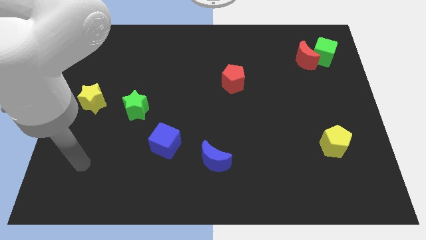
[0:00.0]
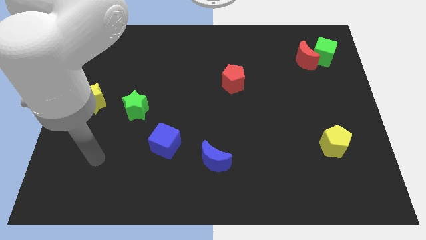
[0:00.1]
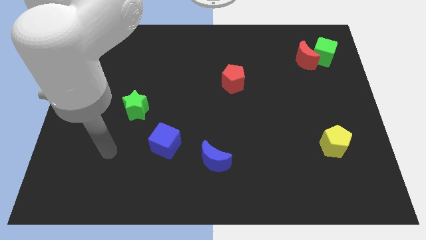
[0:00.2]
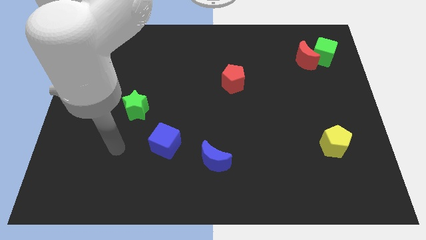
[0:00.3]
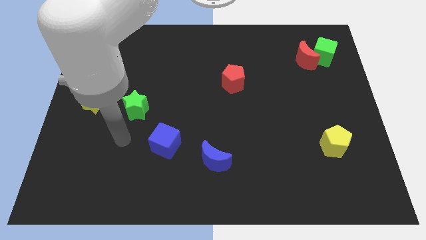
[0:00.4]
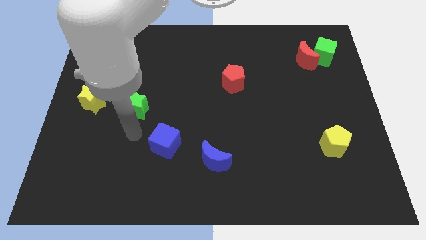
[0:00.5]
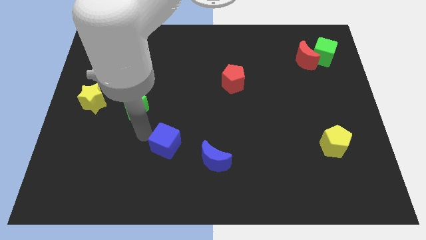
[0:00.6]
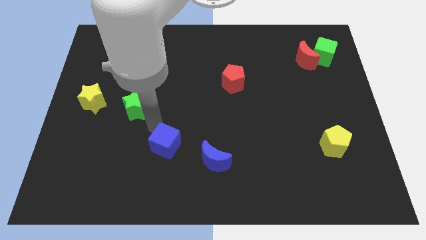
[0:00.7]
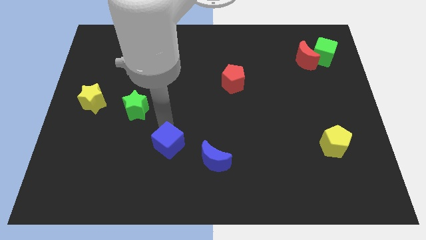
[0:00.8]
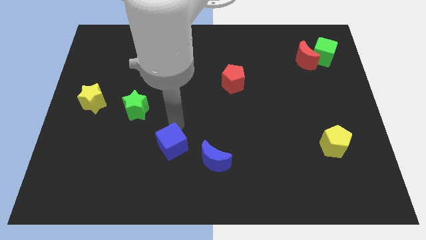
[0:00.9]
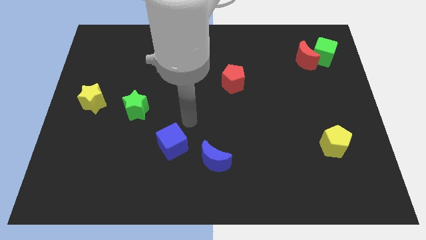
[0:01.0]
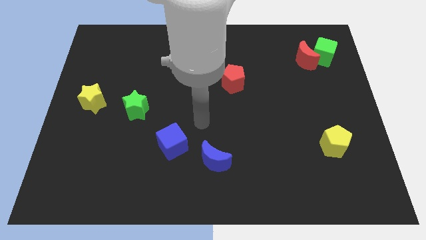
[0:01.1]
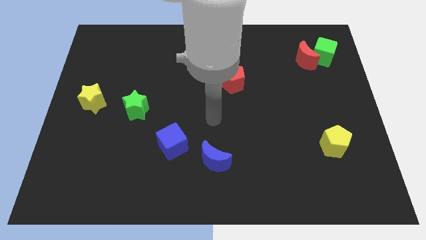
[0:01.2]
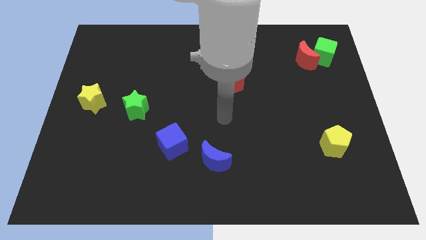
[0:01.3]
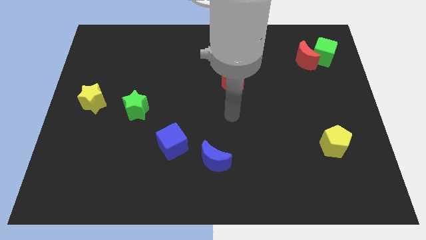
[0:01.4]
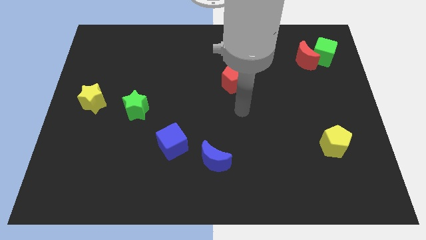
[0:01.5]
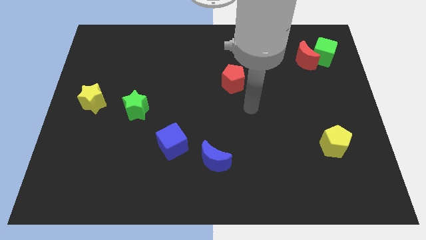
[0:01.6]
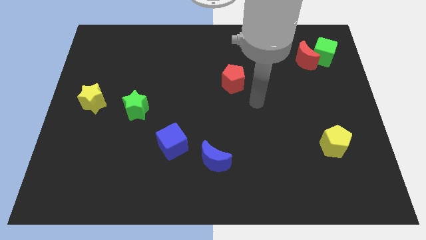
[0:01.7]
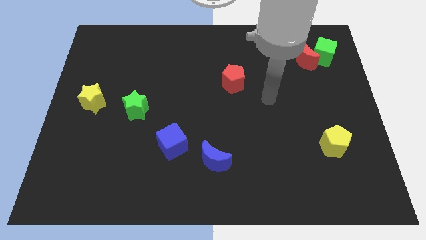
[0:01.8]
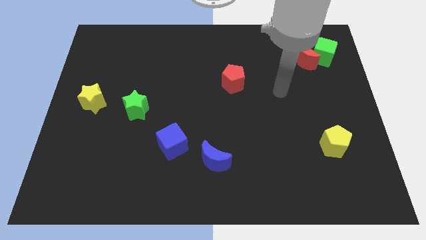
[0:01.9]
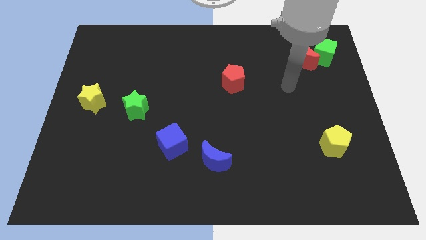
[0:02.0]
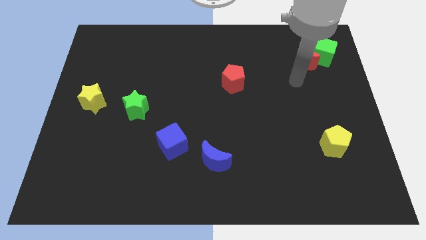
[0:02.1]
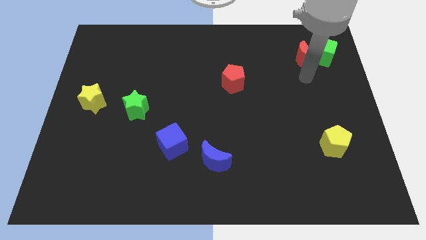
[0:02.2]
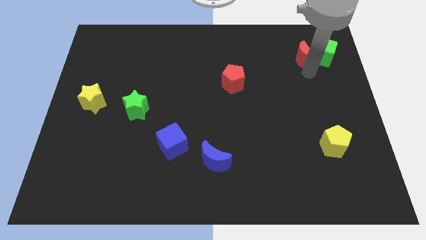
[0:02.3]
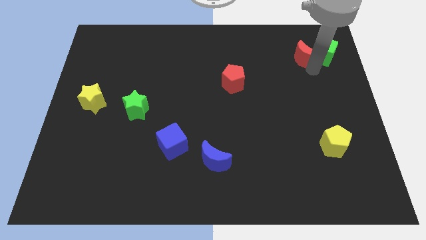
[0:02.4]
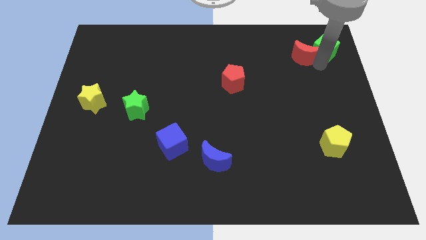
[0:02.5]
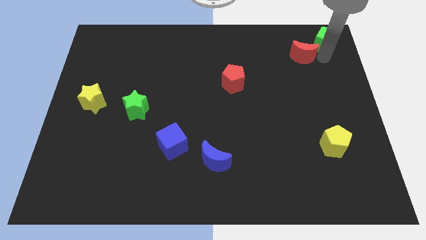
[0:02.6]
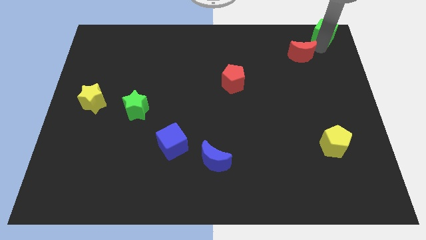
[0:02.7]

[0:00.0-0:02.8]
move the red moon away from the green cube

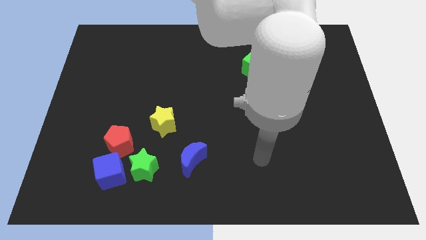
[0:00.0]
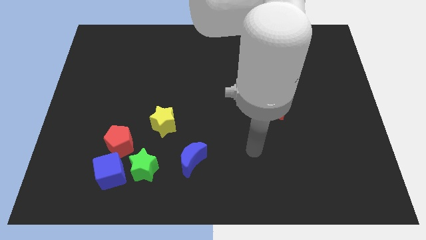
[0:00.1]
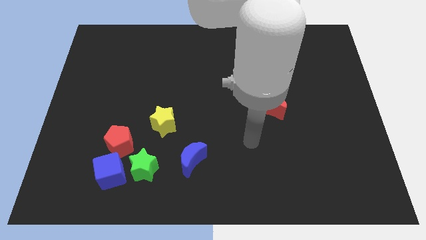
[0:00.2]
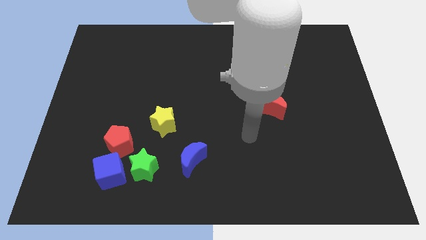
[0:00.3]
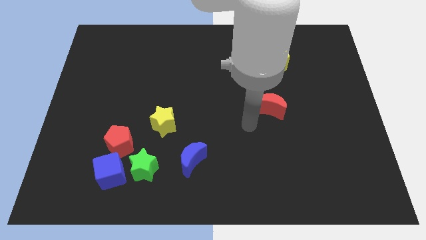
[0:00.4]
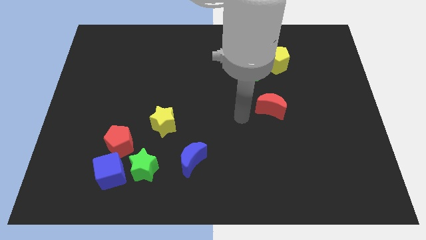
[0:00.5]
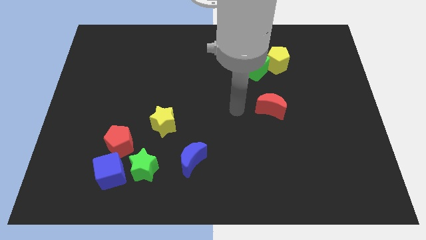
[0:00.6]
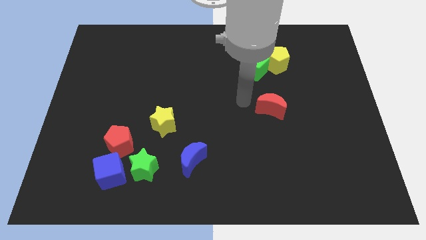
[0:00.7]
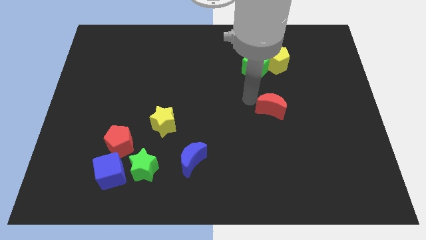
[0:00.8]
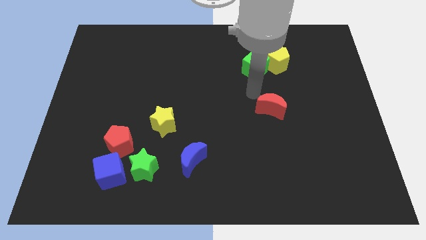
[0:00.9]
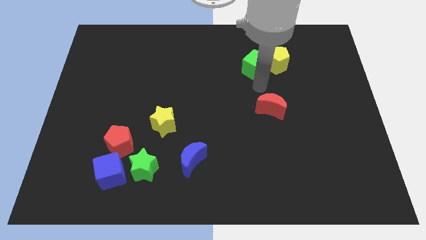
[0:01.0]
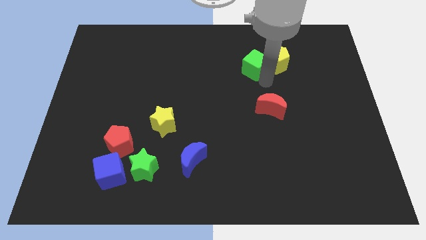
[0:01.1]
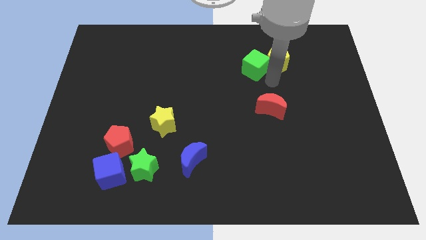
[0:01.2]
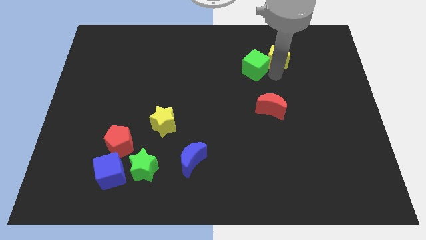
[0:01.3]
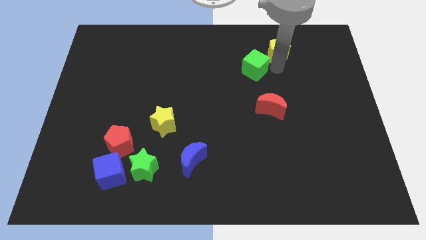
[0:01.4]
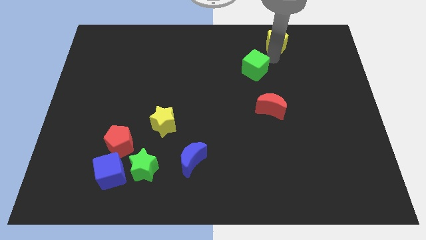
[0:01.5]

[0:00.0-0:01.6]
move the green cube away from the yellow pentagon

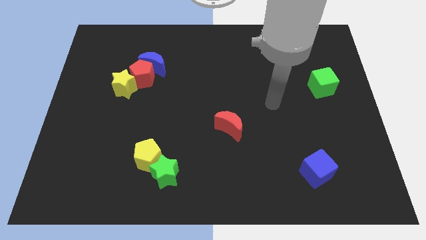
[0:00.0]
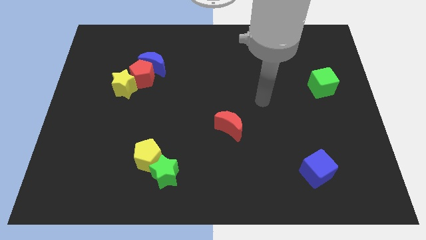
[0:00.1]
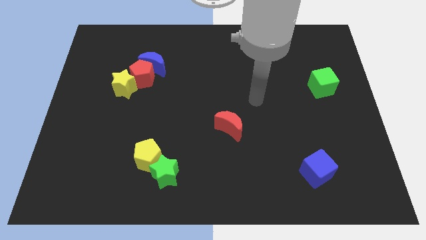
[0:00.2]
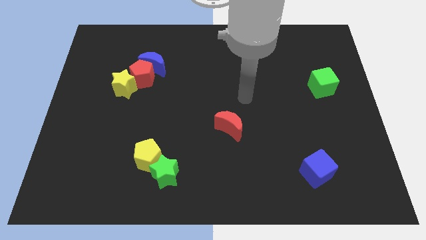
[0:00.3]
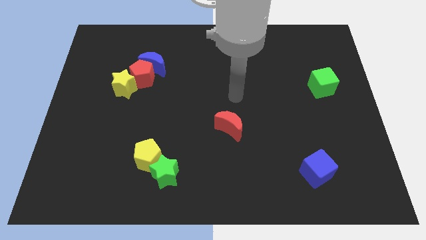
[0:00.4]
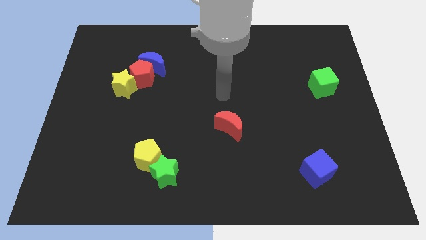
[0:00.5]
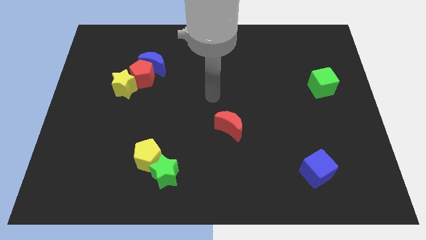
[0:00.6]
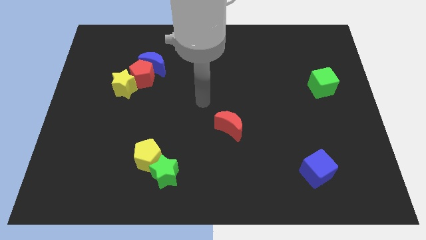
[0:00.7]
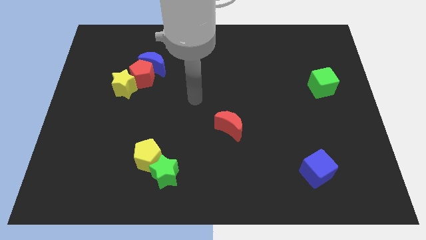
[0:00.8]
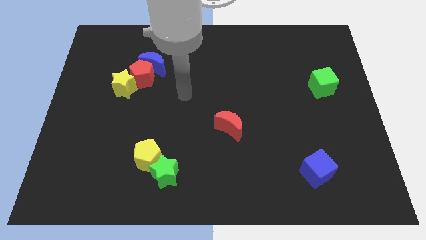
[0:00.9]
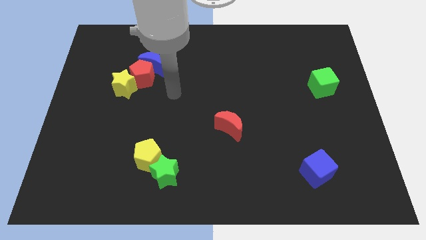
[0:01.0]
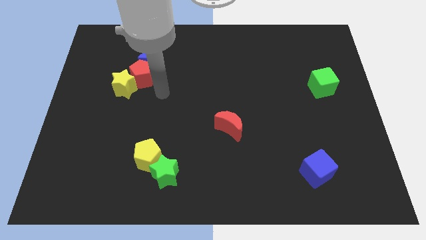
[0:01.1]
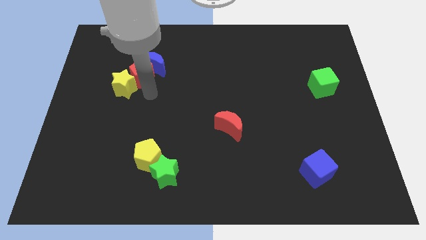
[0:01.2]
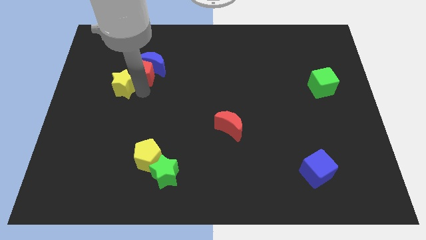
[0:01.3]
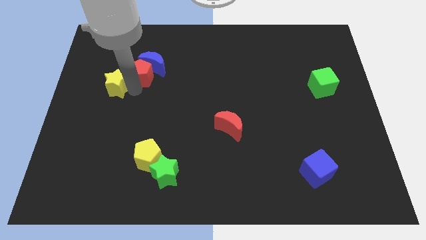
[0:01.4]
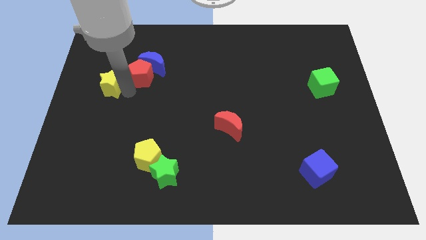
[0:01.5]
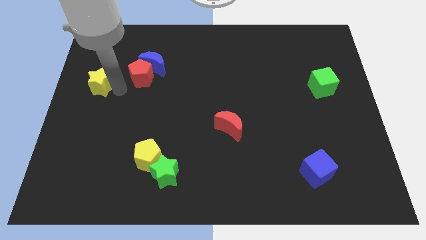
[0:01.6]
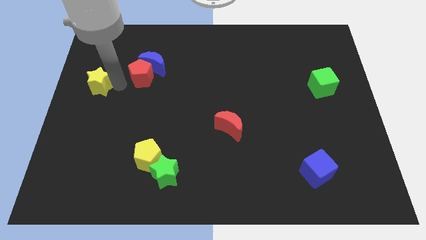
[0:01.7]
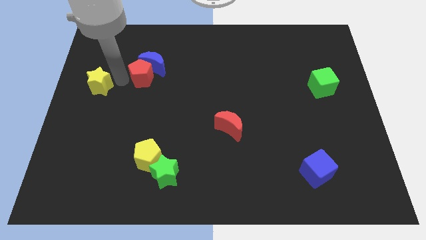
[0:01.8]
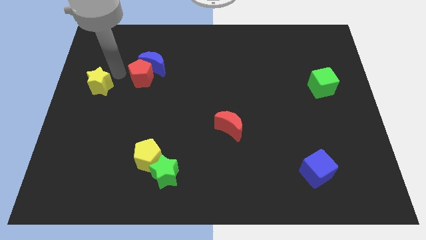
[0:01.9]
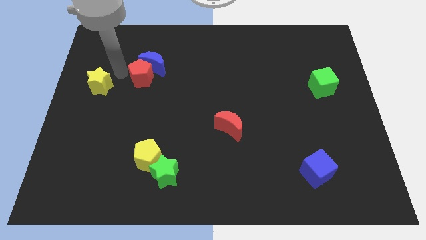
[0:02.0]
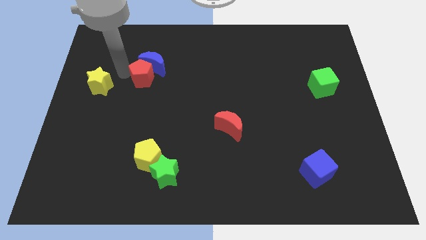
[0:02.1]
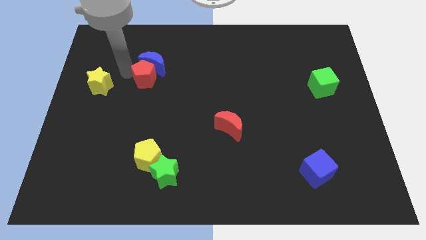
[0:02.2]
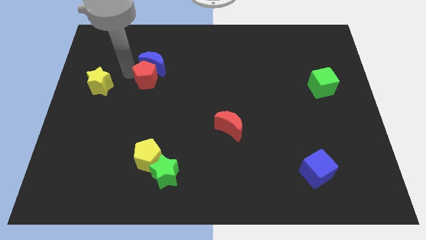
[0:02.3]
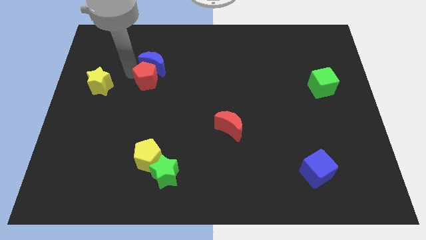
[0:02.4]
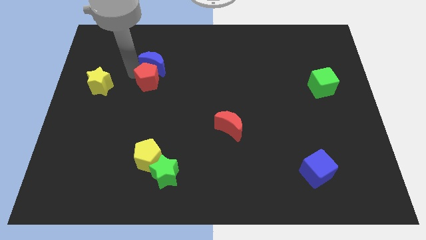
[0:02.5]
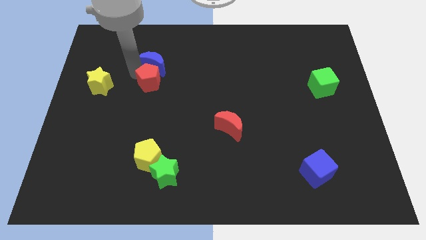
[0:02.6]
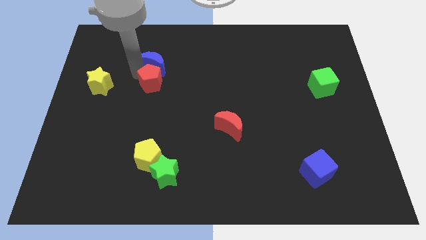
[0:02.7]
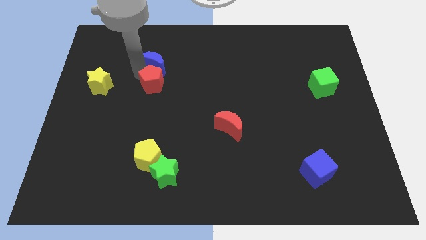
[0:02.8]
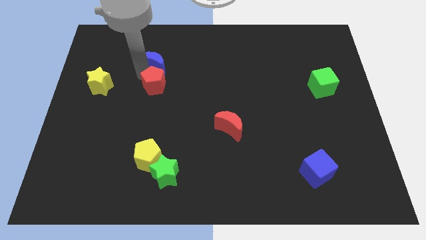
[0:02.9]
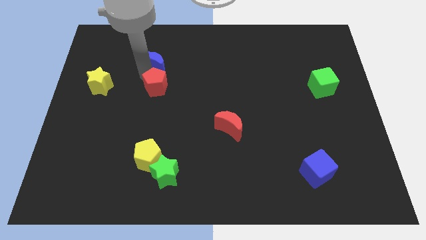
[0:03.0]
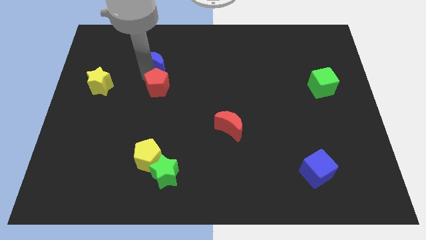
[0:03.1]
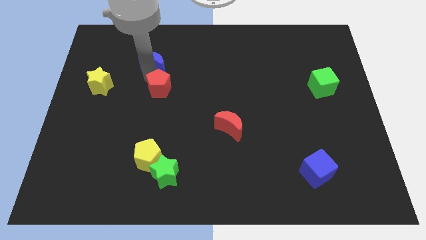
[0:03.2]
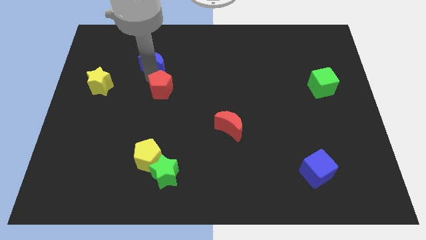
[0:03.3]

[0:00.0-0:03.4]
move the red pentagon away from the blue moon and yellow star

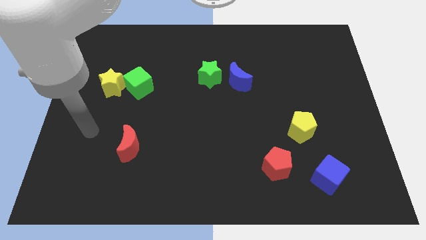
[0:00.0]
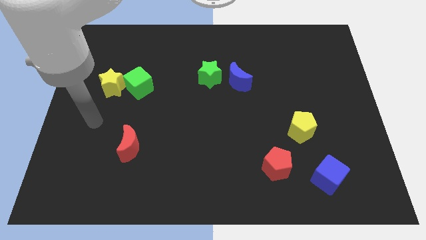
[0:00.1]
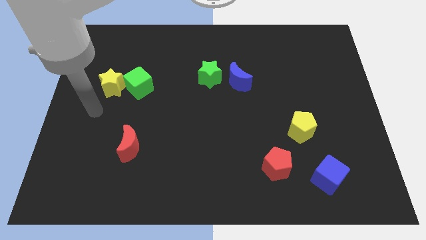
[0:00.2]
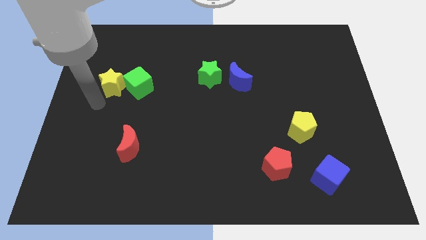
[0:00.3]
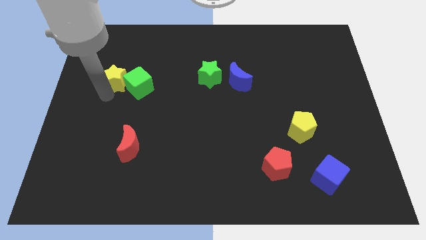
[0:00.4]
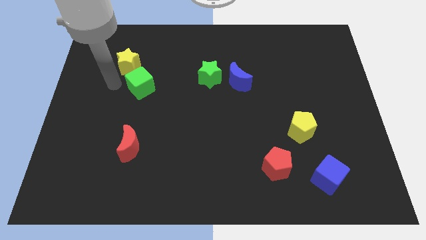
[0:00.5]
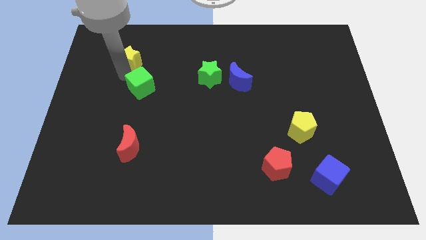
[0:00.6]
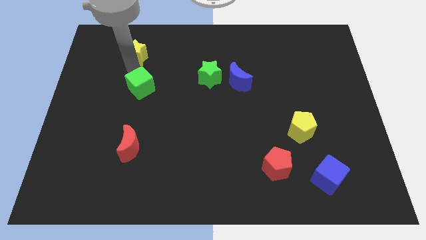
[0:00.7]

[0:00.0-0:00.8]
separate the green cube from the yellow star

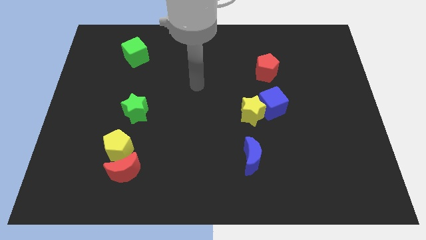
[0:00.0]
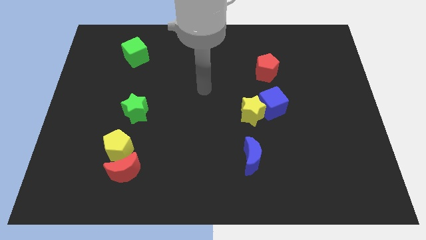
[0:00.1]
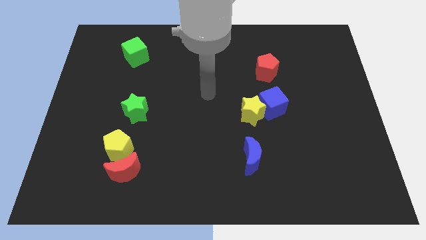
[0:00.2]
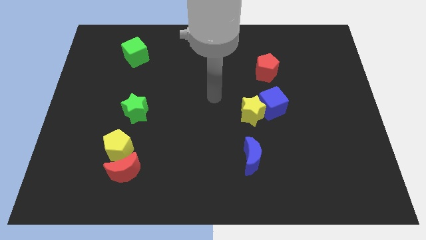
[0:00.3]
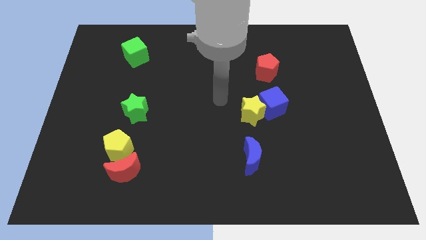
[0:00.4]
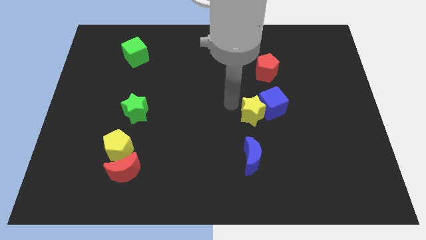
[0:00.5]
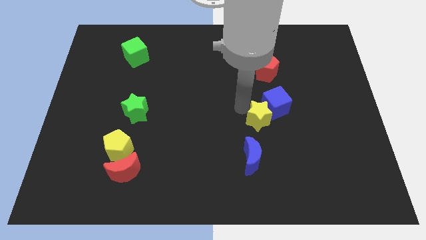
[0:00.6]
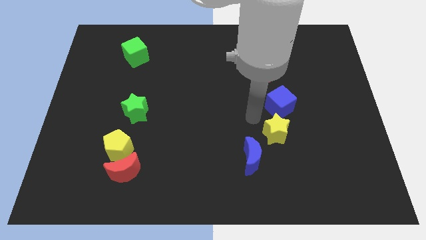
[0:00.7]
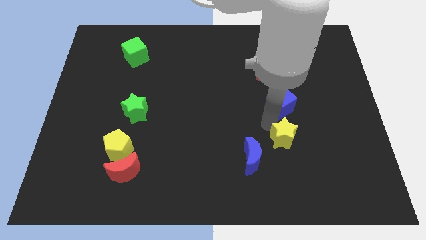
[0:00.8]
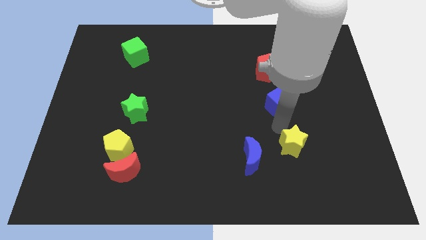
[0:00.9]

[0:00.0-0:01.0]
pull the blue cube apart from the yellow star
